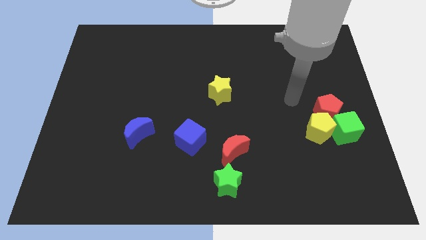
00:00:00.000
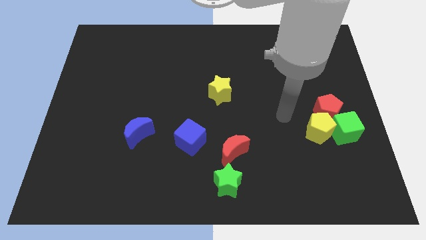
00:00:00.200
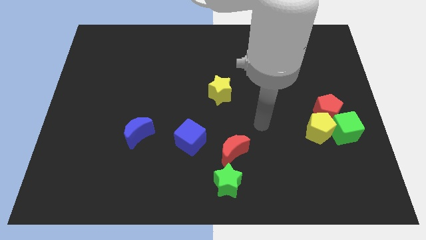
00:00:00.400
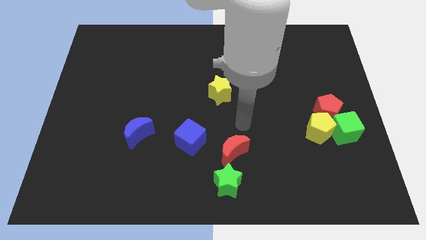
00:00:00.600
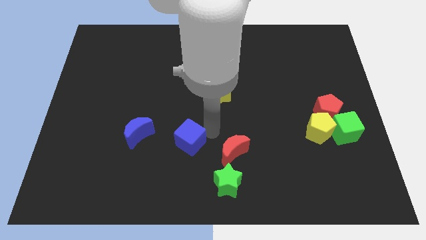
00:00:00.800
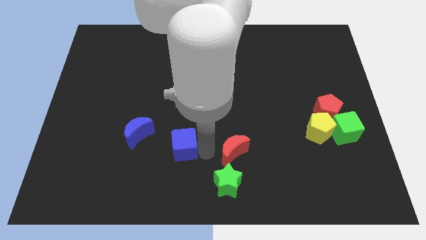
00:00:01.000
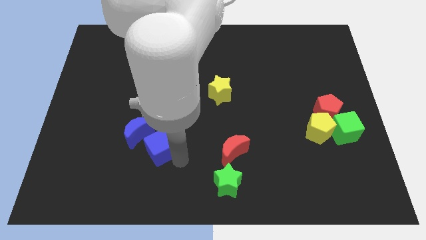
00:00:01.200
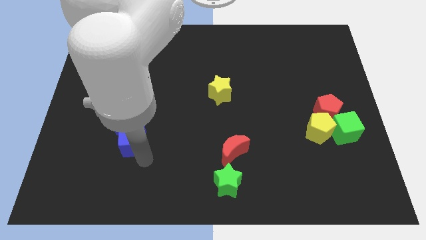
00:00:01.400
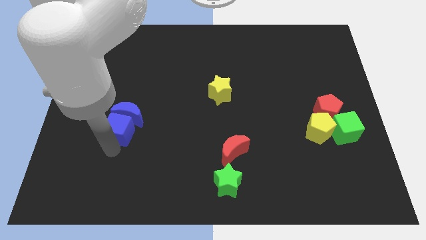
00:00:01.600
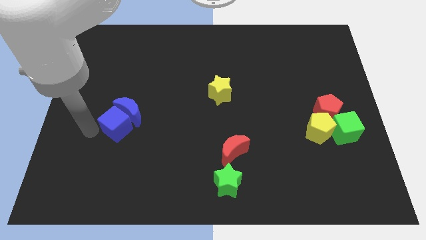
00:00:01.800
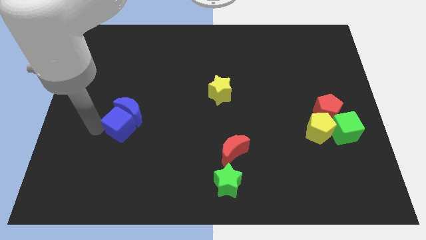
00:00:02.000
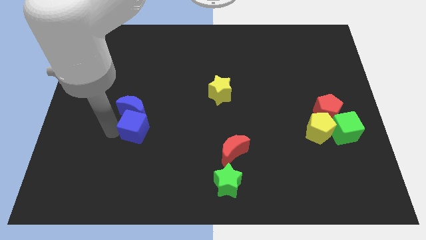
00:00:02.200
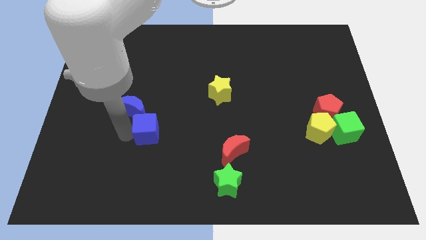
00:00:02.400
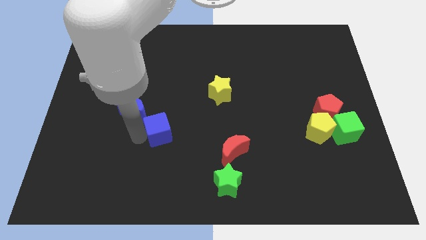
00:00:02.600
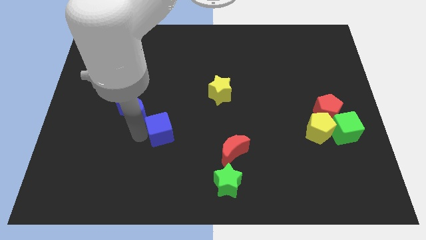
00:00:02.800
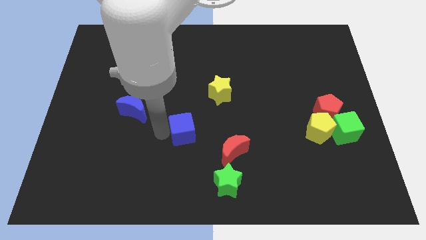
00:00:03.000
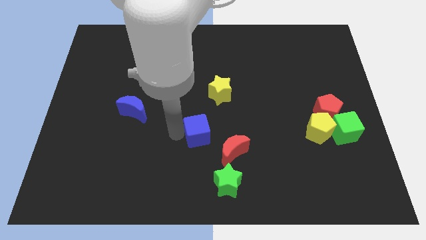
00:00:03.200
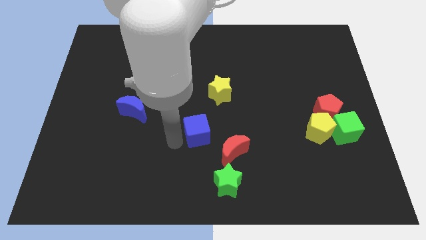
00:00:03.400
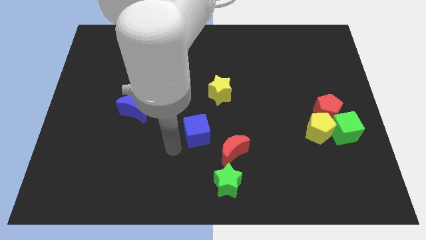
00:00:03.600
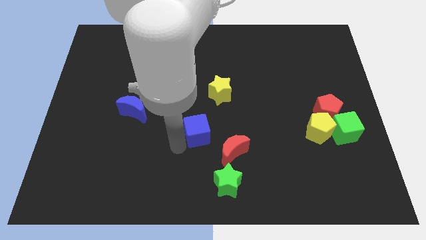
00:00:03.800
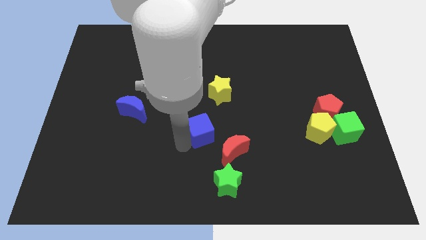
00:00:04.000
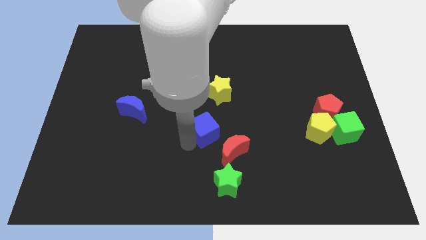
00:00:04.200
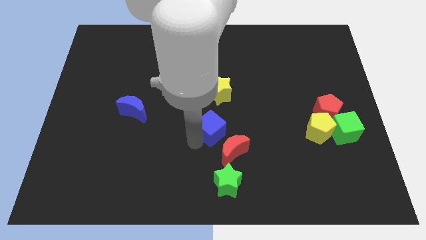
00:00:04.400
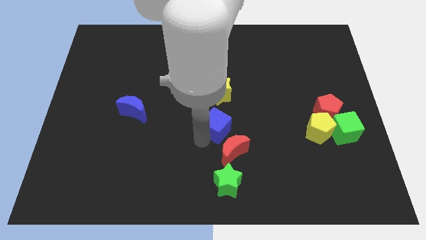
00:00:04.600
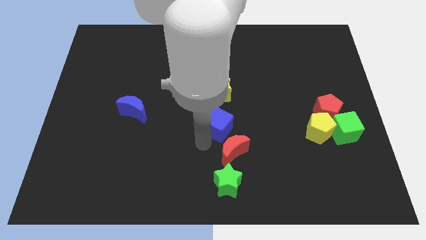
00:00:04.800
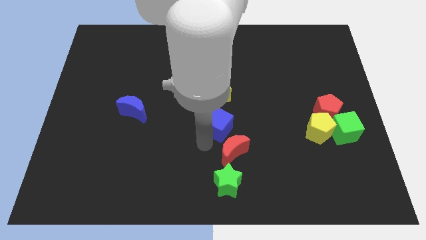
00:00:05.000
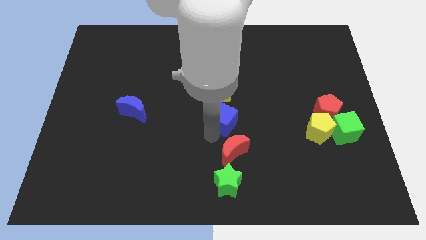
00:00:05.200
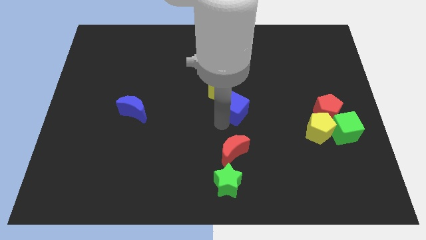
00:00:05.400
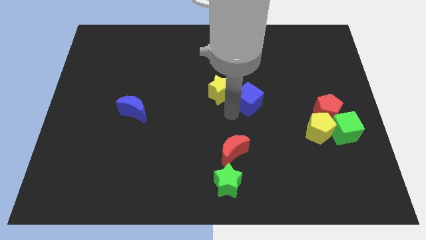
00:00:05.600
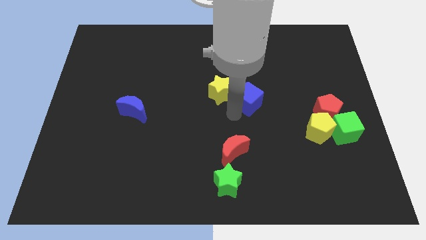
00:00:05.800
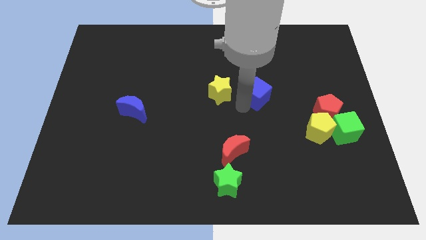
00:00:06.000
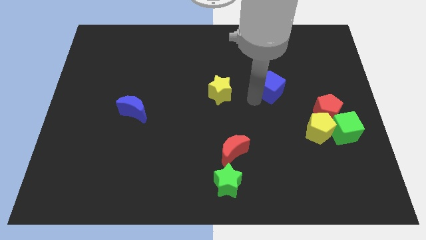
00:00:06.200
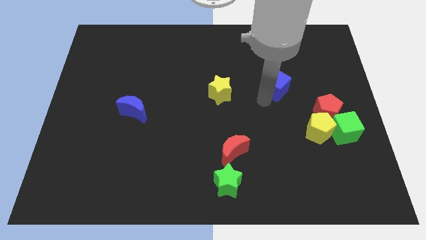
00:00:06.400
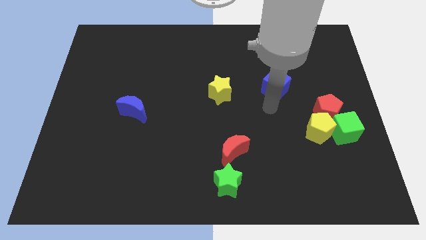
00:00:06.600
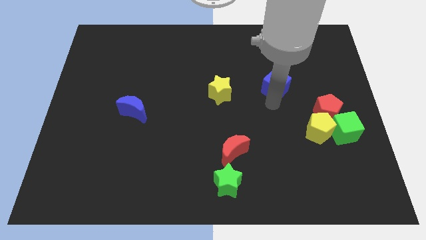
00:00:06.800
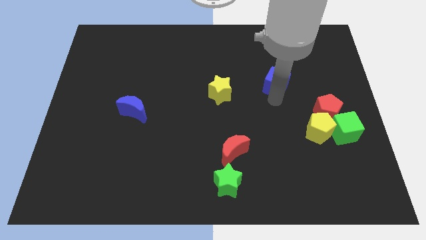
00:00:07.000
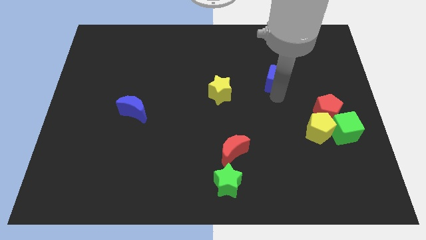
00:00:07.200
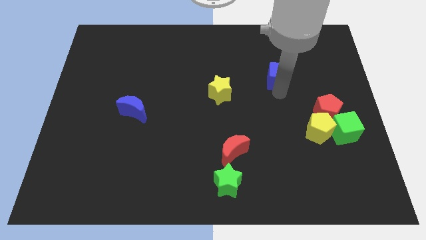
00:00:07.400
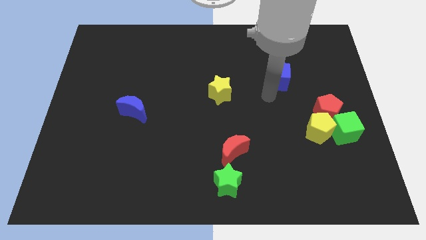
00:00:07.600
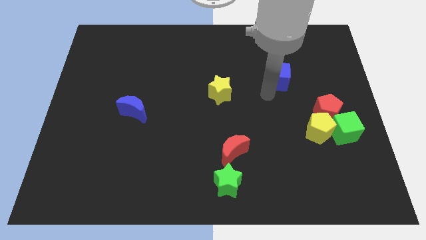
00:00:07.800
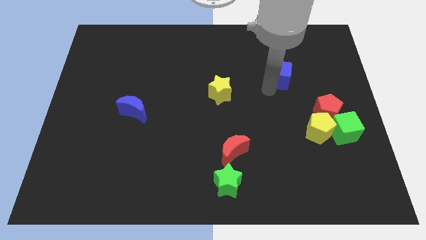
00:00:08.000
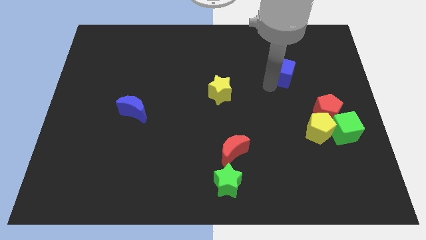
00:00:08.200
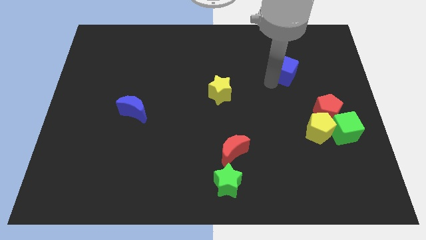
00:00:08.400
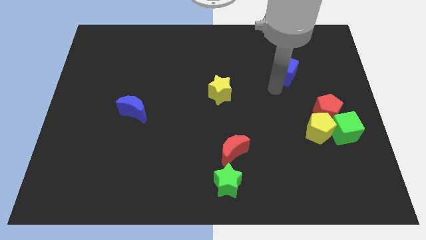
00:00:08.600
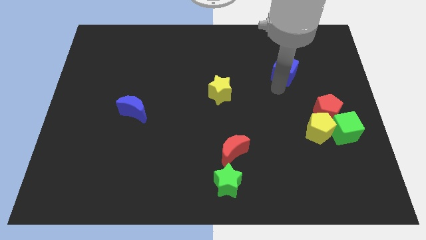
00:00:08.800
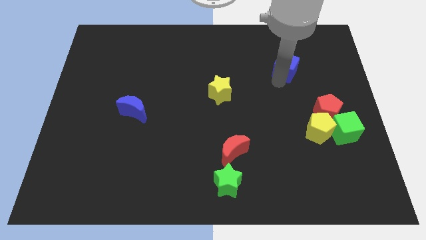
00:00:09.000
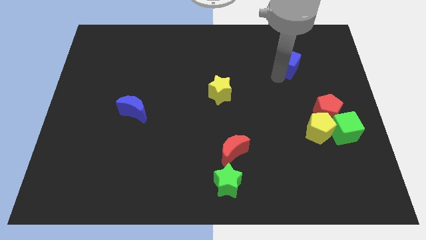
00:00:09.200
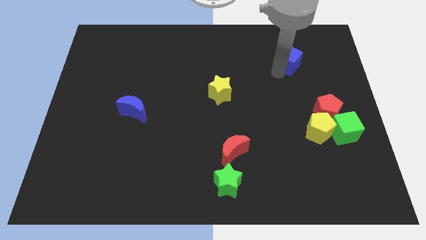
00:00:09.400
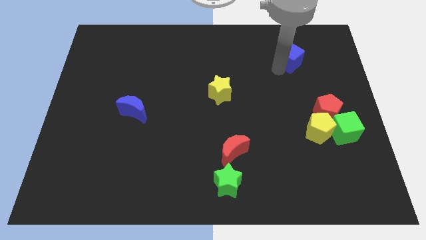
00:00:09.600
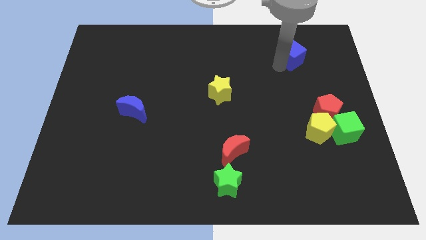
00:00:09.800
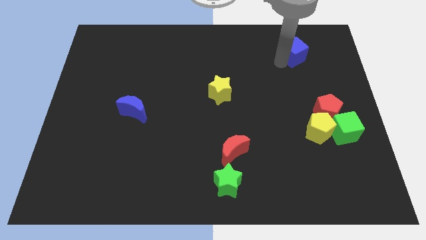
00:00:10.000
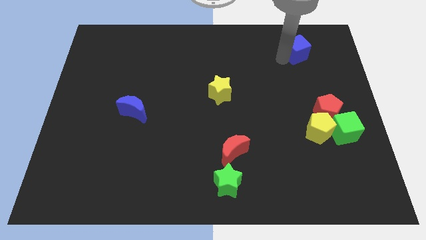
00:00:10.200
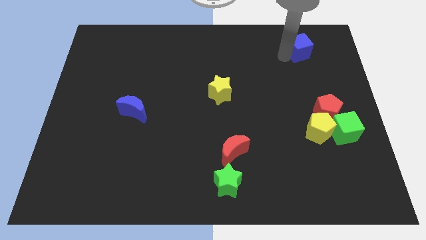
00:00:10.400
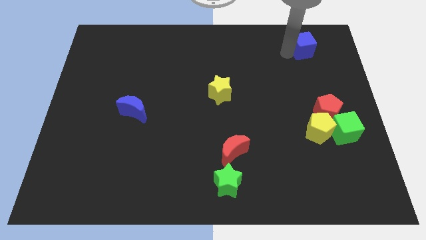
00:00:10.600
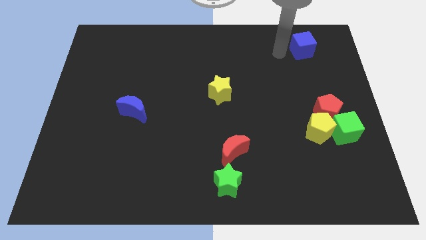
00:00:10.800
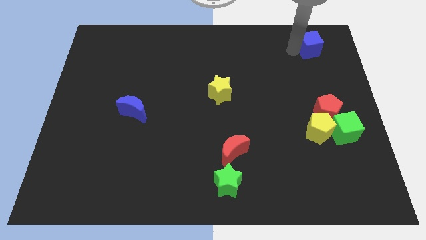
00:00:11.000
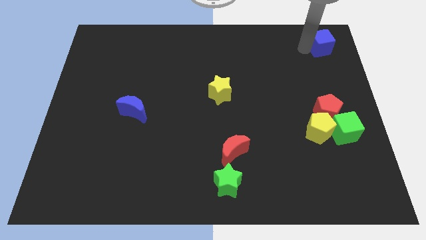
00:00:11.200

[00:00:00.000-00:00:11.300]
push the blue cube to the upper right corner

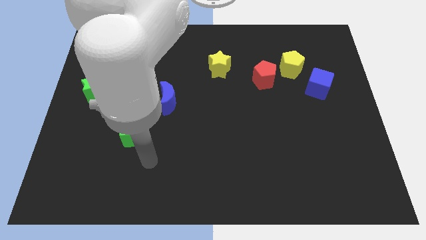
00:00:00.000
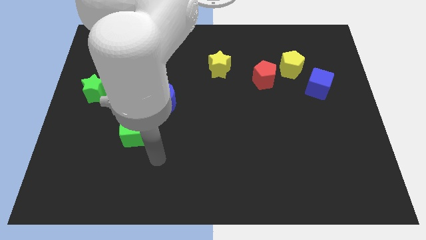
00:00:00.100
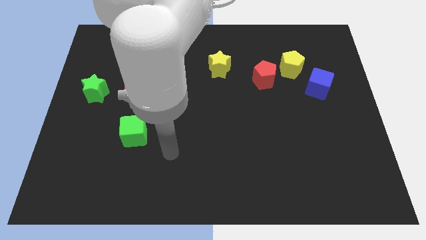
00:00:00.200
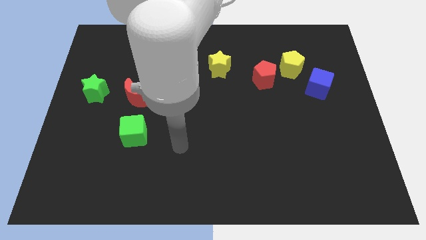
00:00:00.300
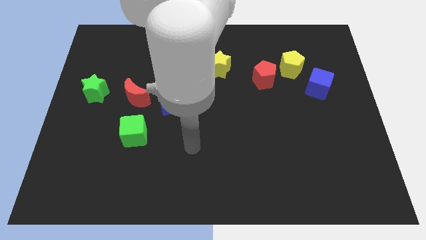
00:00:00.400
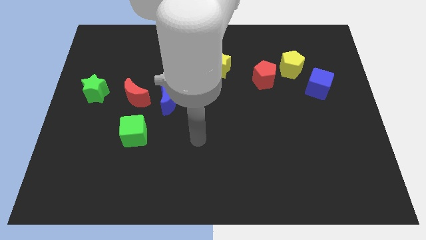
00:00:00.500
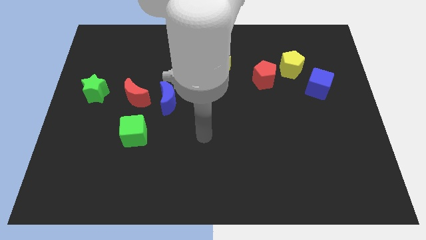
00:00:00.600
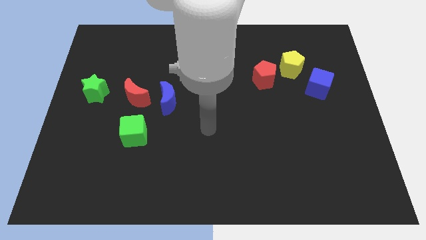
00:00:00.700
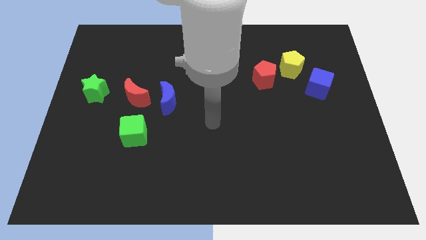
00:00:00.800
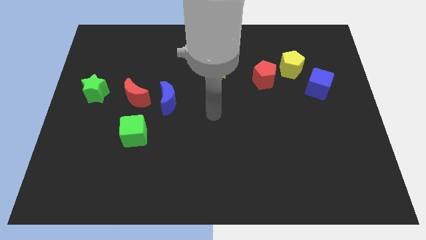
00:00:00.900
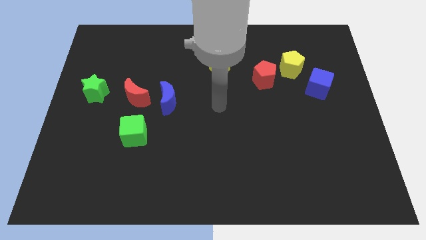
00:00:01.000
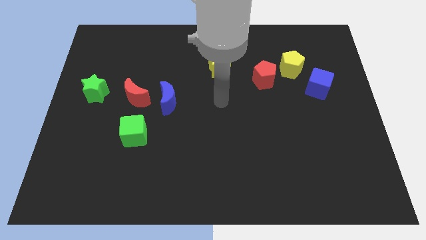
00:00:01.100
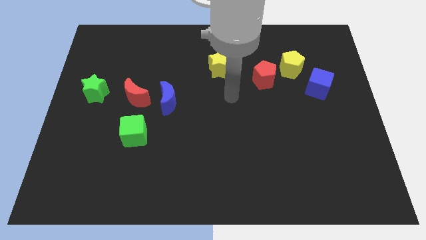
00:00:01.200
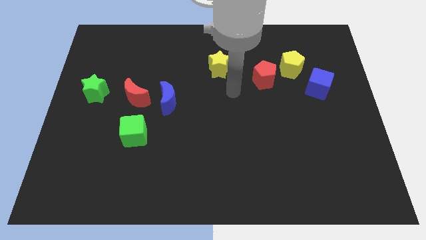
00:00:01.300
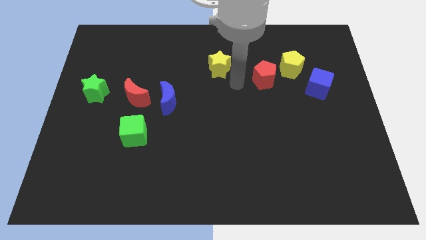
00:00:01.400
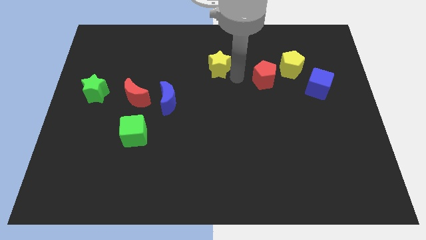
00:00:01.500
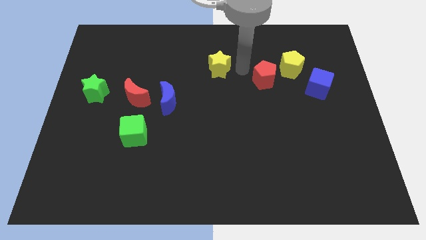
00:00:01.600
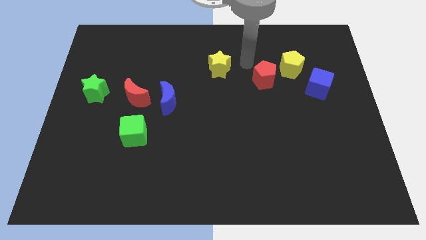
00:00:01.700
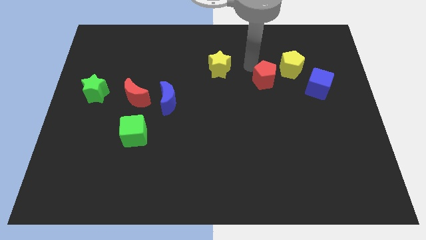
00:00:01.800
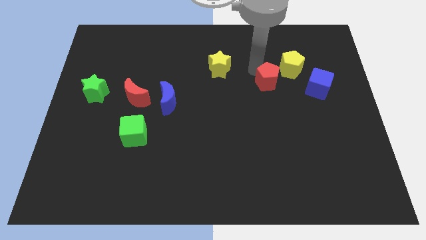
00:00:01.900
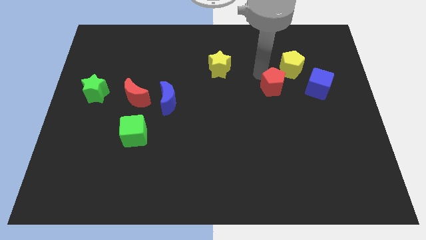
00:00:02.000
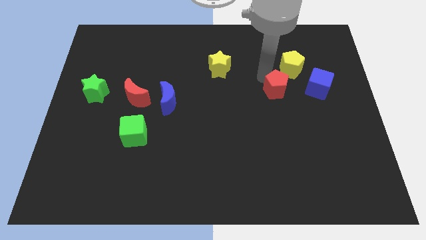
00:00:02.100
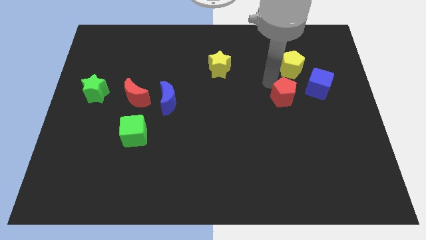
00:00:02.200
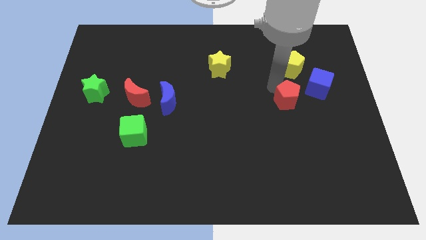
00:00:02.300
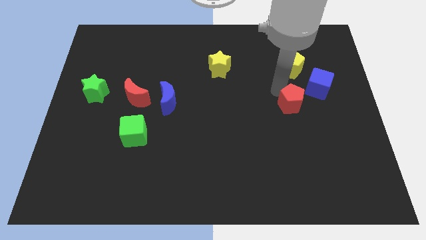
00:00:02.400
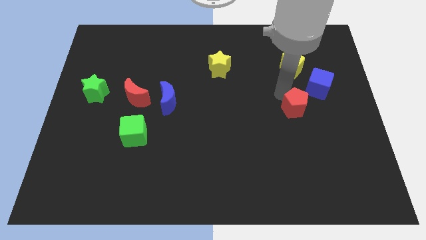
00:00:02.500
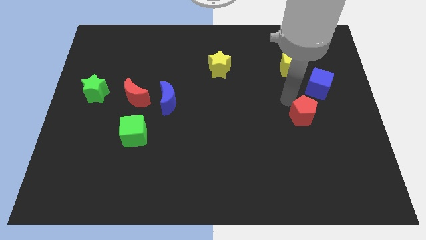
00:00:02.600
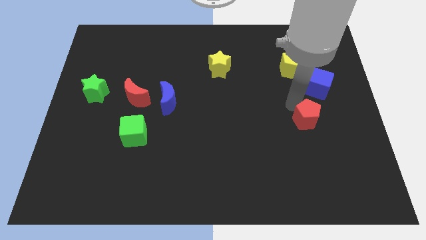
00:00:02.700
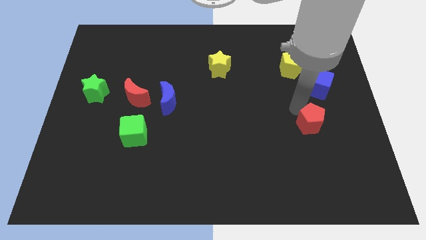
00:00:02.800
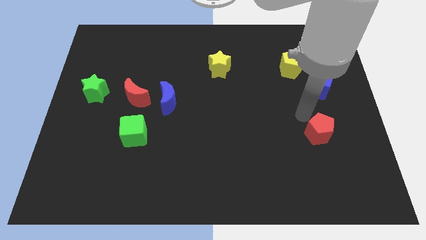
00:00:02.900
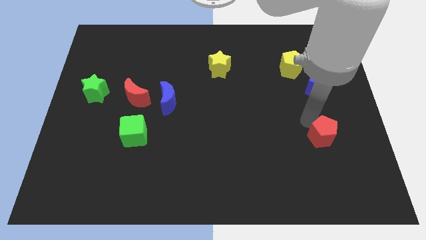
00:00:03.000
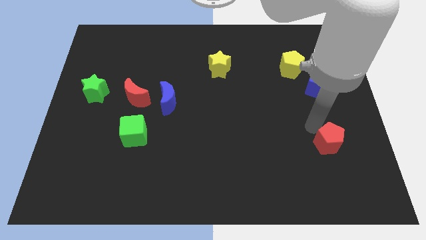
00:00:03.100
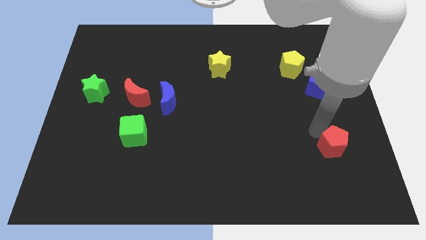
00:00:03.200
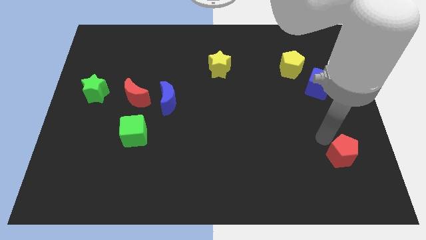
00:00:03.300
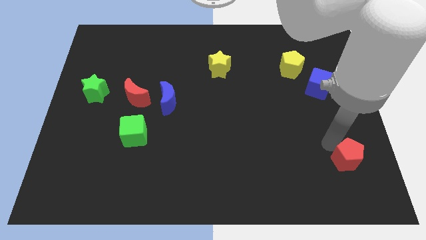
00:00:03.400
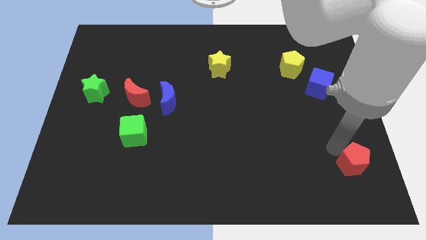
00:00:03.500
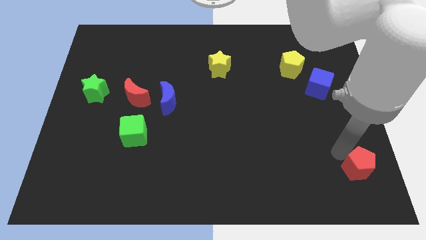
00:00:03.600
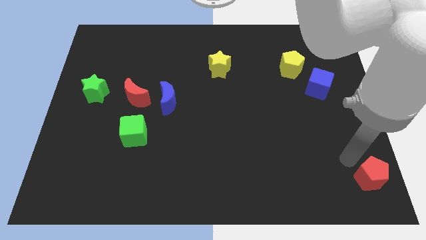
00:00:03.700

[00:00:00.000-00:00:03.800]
put the red pentagon to the bottom right of the board
